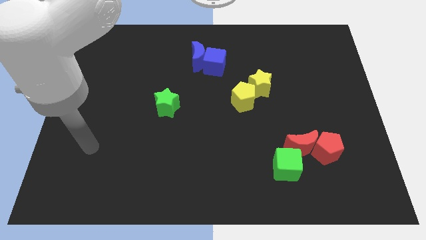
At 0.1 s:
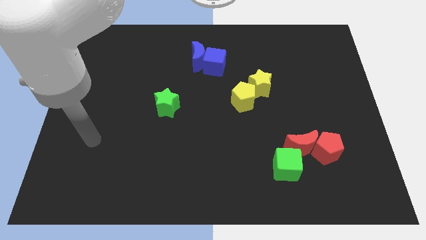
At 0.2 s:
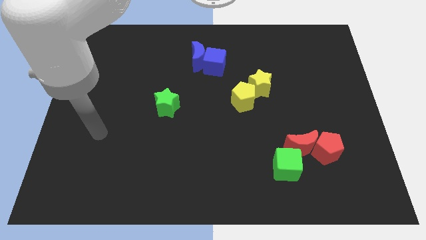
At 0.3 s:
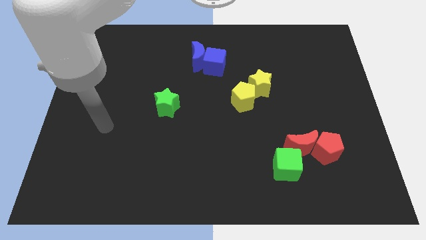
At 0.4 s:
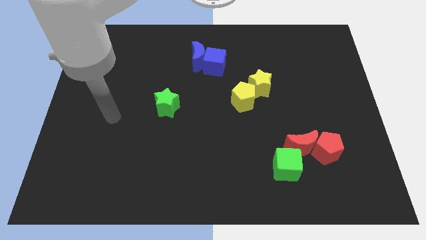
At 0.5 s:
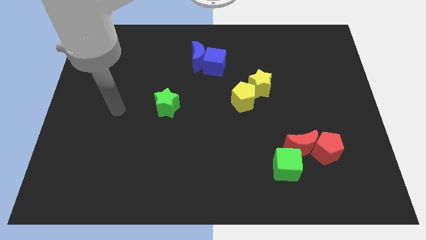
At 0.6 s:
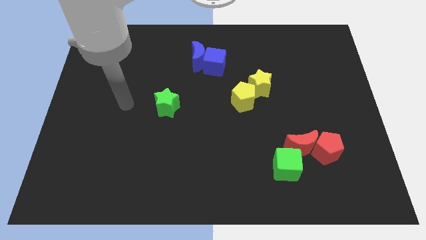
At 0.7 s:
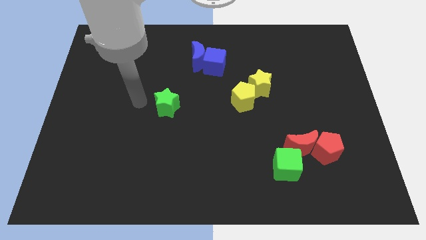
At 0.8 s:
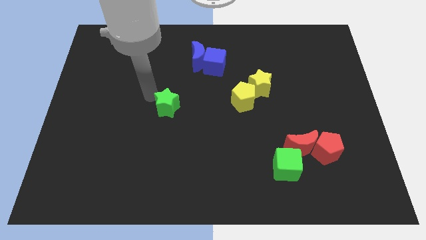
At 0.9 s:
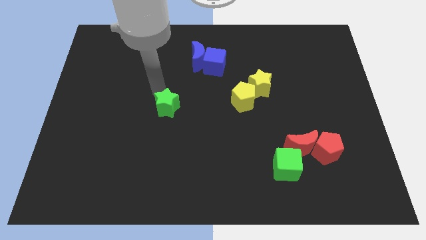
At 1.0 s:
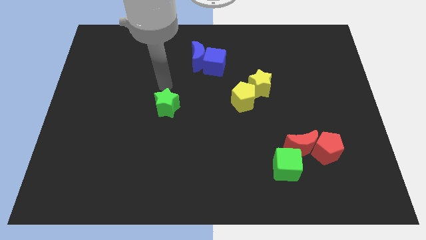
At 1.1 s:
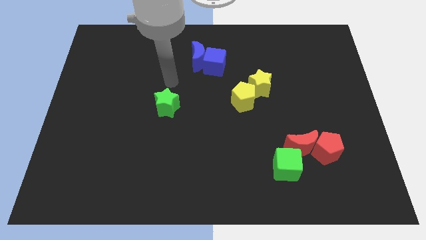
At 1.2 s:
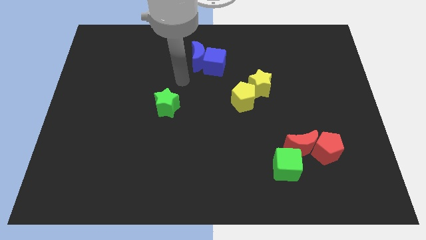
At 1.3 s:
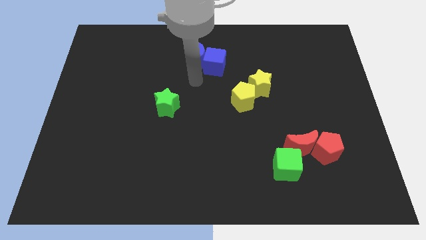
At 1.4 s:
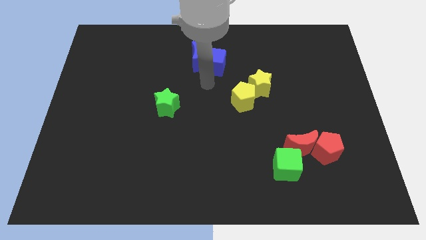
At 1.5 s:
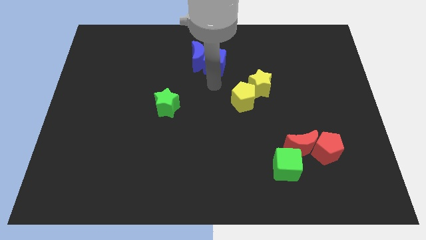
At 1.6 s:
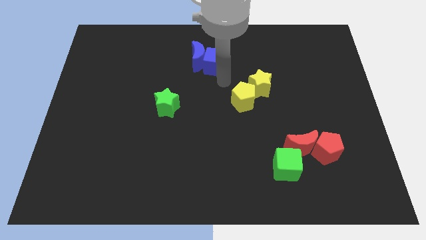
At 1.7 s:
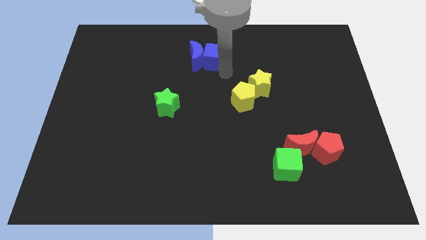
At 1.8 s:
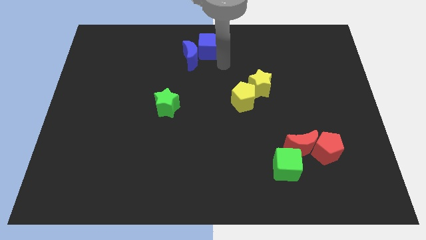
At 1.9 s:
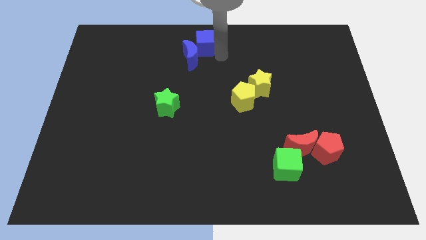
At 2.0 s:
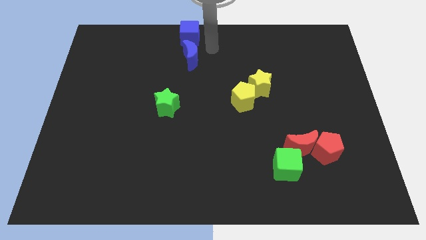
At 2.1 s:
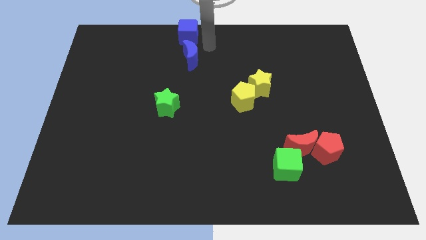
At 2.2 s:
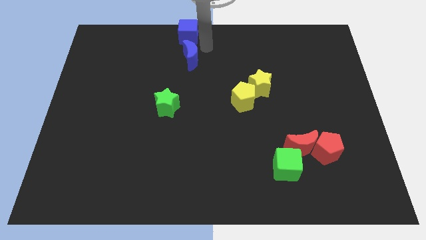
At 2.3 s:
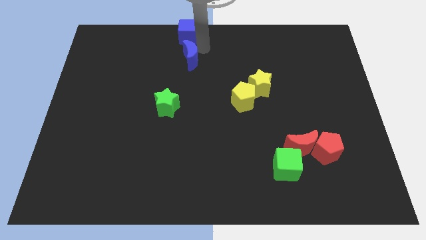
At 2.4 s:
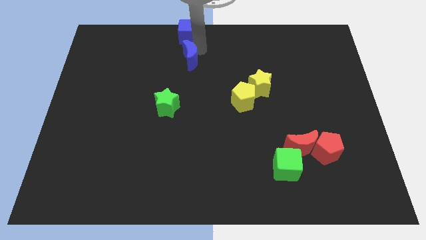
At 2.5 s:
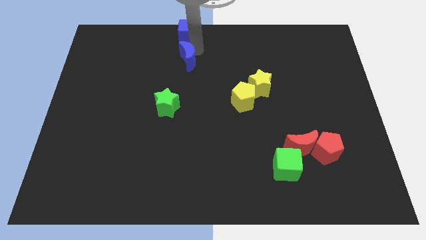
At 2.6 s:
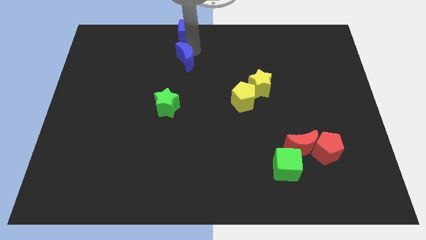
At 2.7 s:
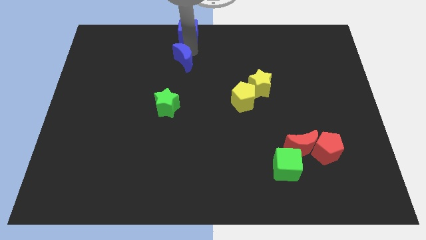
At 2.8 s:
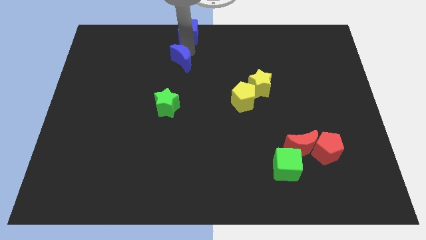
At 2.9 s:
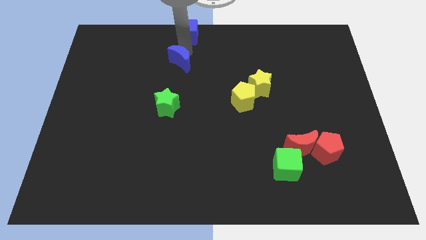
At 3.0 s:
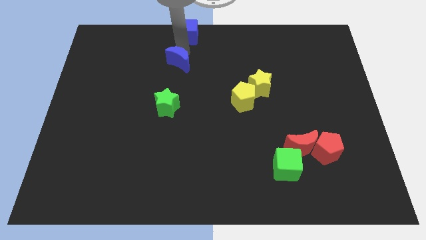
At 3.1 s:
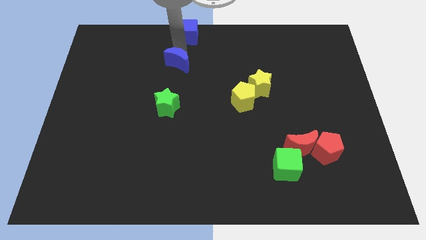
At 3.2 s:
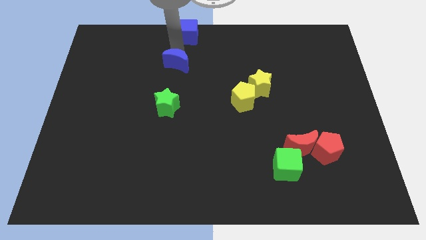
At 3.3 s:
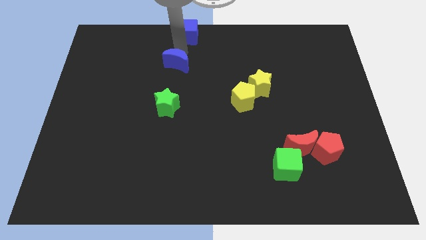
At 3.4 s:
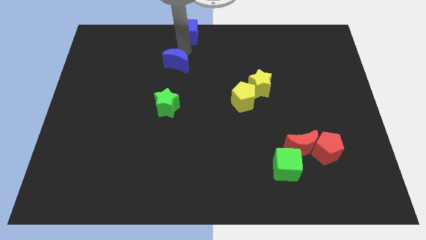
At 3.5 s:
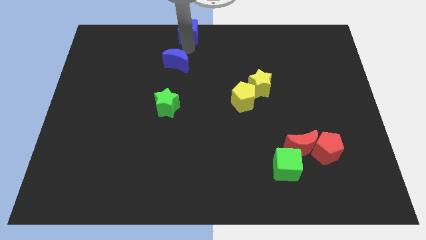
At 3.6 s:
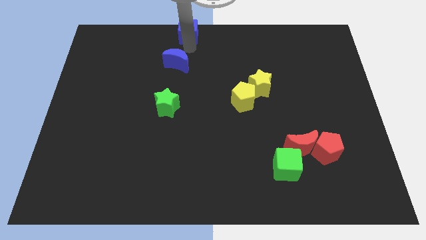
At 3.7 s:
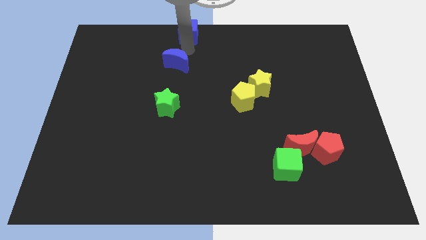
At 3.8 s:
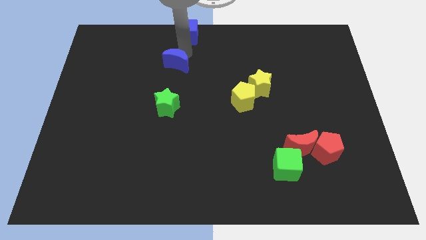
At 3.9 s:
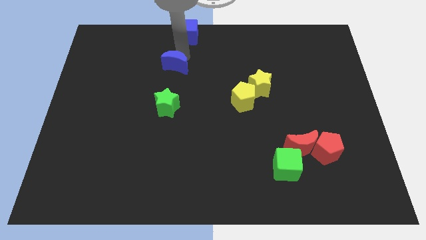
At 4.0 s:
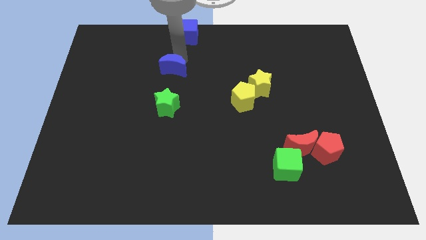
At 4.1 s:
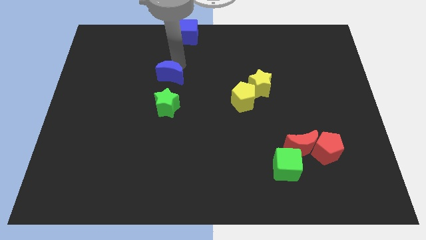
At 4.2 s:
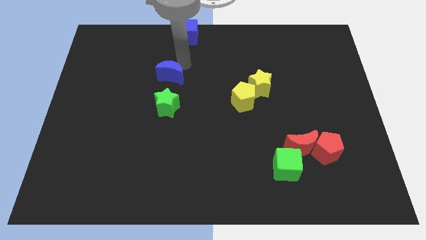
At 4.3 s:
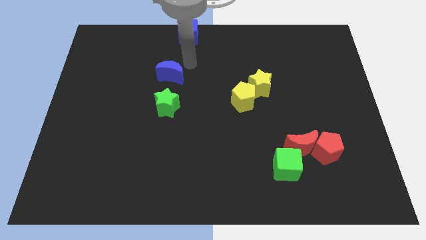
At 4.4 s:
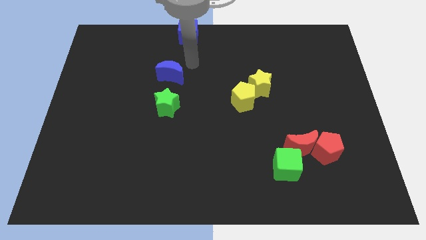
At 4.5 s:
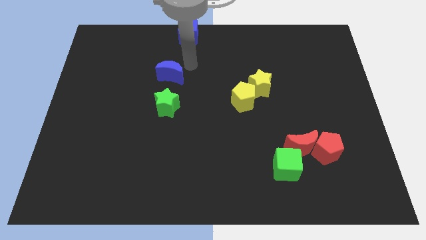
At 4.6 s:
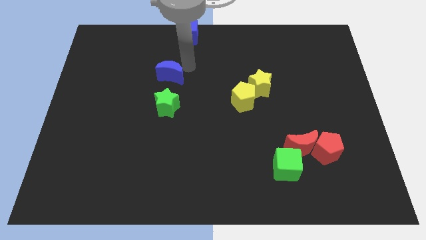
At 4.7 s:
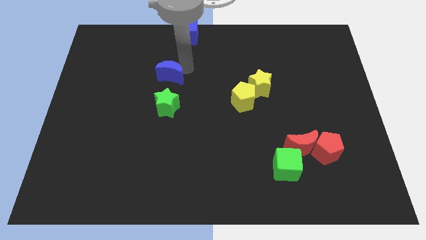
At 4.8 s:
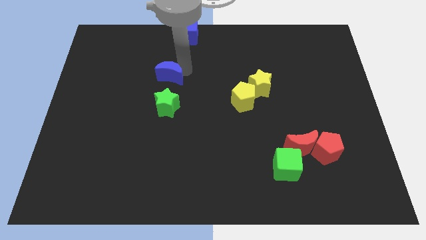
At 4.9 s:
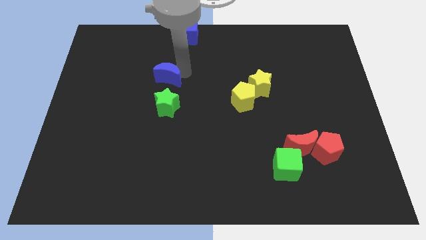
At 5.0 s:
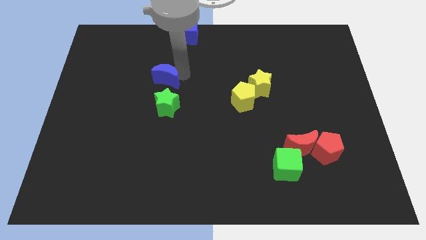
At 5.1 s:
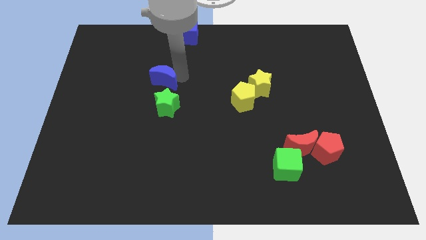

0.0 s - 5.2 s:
move the blue moon to the top left of the green star

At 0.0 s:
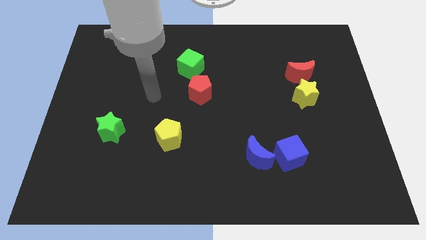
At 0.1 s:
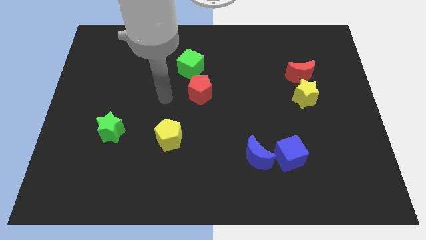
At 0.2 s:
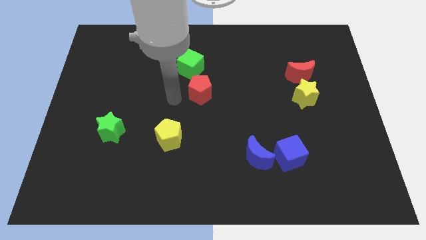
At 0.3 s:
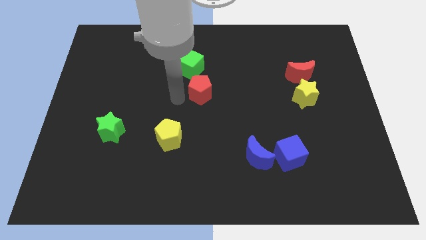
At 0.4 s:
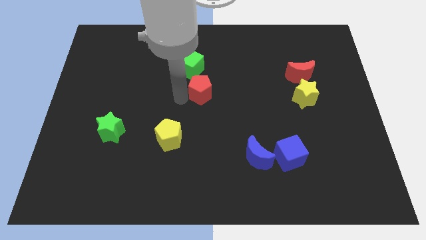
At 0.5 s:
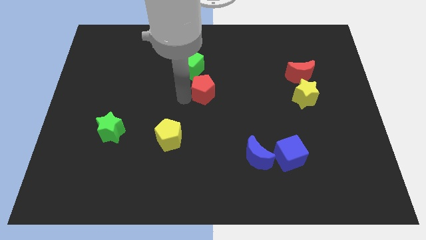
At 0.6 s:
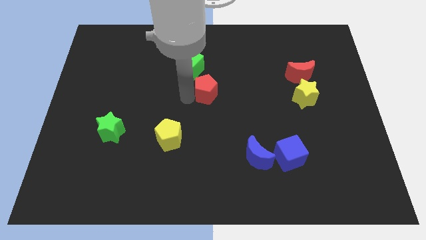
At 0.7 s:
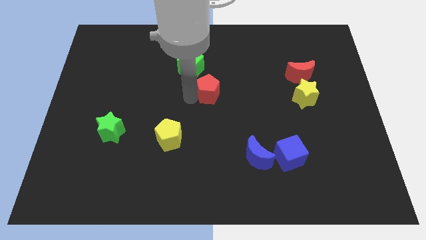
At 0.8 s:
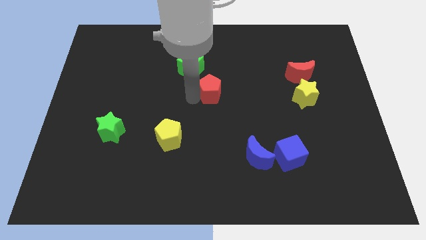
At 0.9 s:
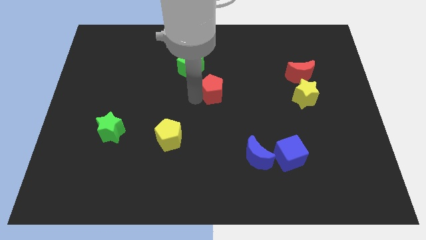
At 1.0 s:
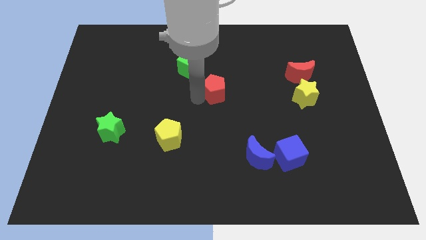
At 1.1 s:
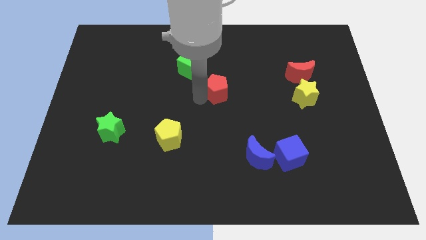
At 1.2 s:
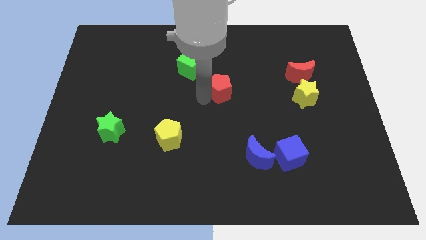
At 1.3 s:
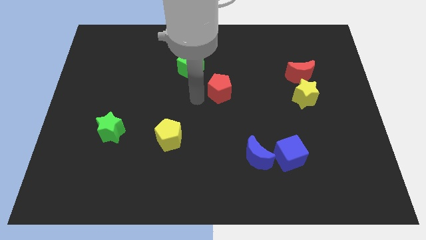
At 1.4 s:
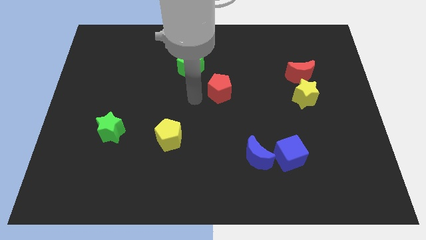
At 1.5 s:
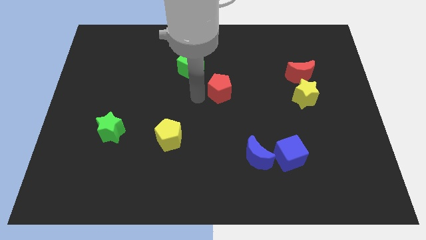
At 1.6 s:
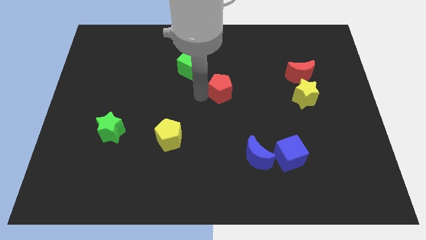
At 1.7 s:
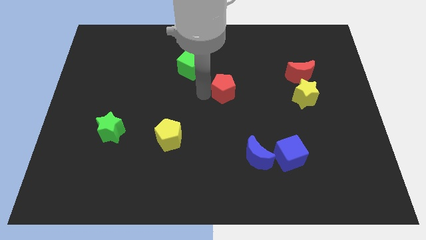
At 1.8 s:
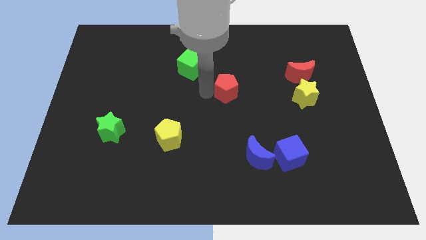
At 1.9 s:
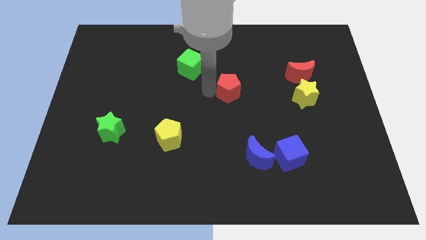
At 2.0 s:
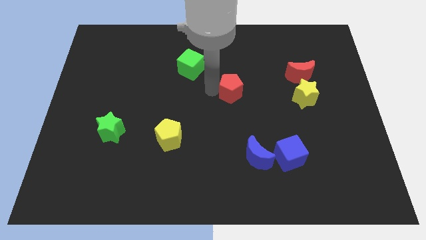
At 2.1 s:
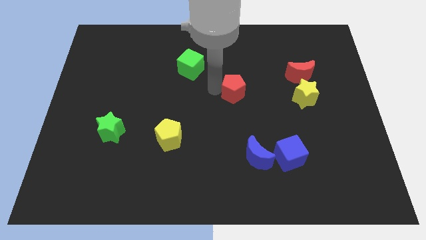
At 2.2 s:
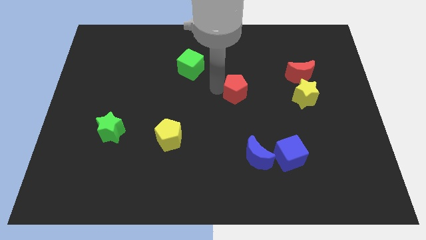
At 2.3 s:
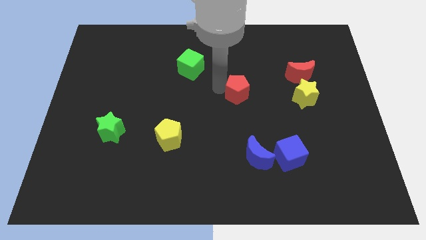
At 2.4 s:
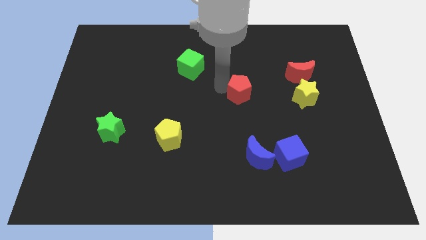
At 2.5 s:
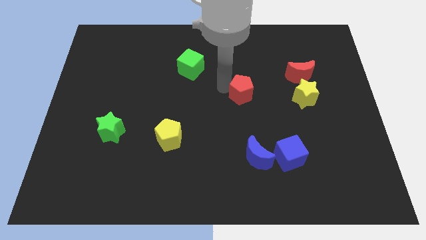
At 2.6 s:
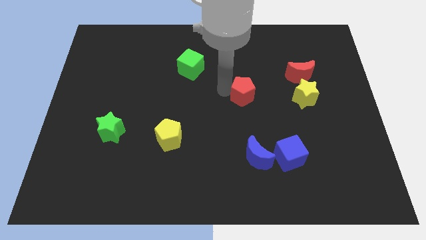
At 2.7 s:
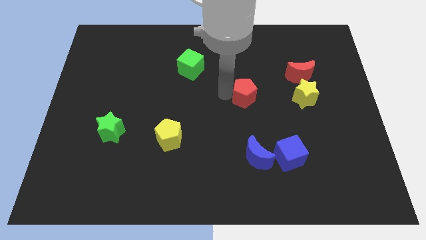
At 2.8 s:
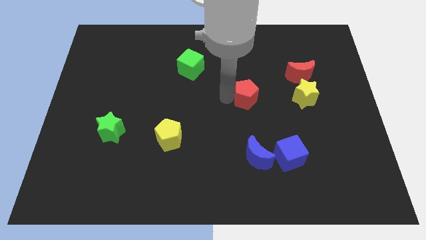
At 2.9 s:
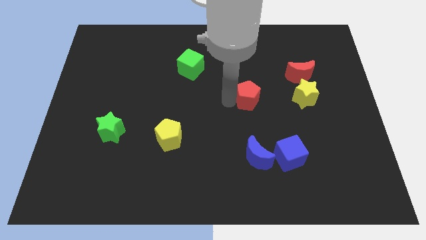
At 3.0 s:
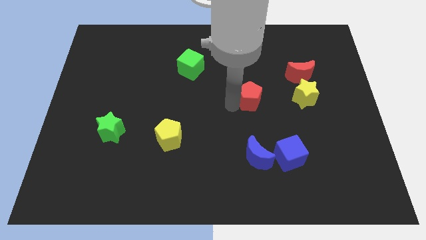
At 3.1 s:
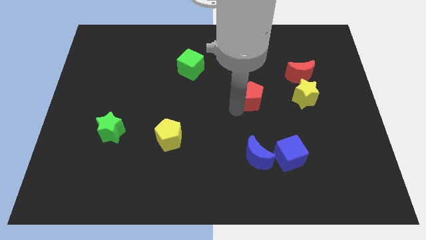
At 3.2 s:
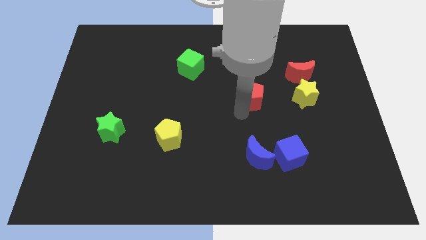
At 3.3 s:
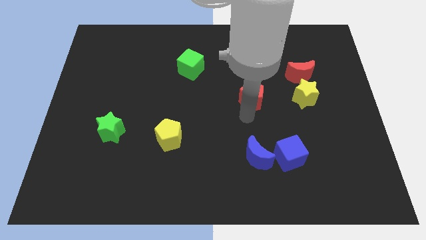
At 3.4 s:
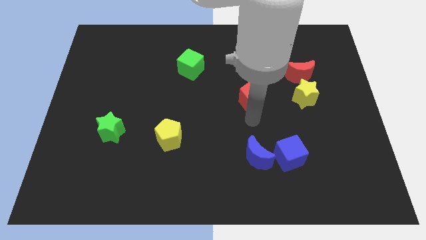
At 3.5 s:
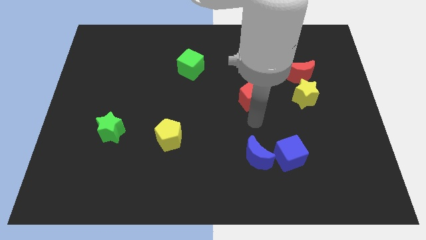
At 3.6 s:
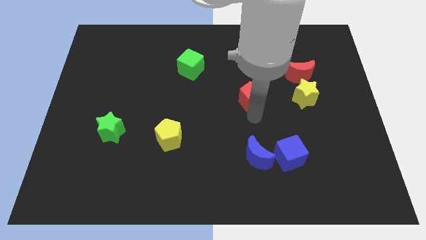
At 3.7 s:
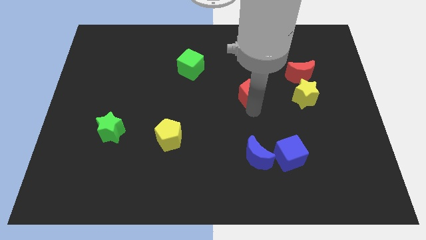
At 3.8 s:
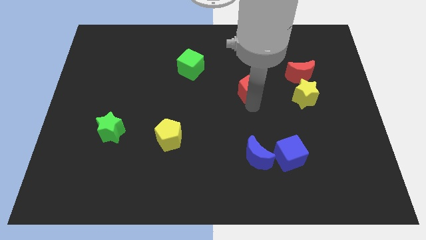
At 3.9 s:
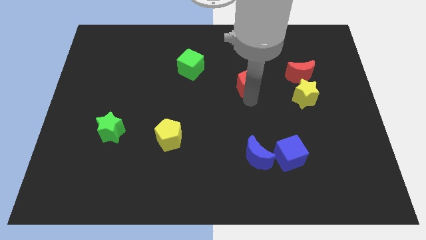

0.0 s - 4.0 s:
move the red pentagon to the left side of the red moon
